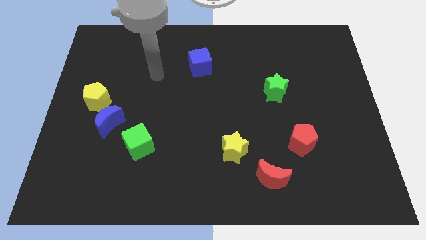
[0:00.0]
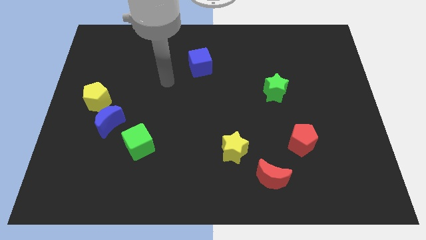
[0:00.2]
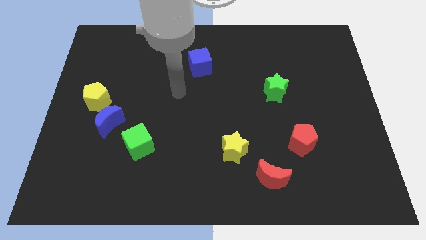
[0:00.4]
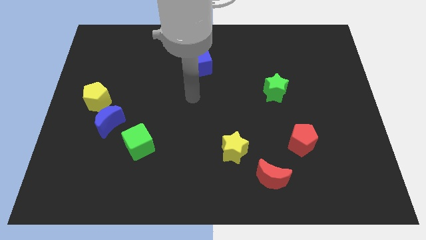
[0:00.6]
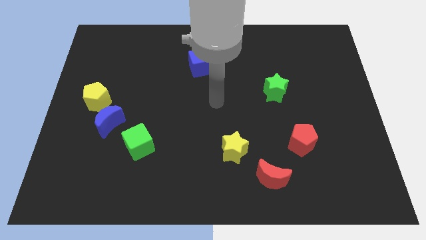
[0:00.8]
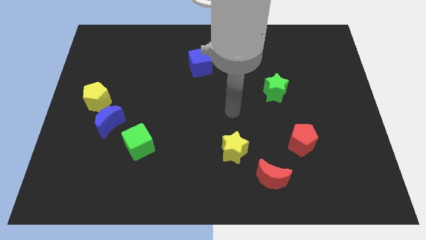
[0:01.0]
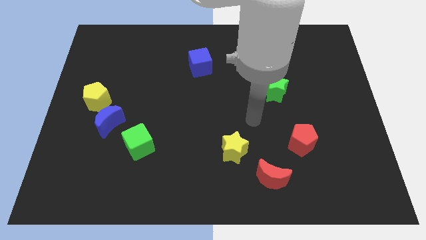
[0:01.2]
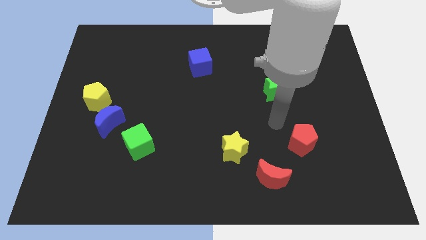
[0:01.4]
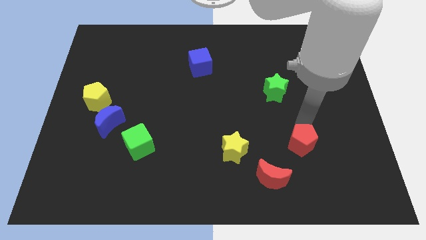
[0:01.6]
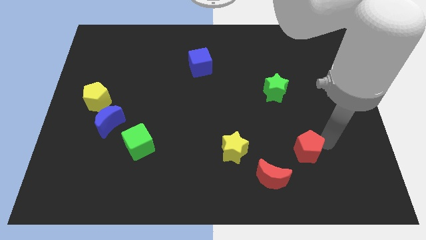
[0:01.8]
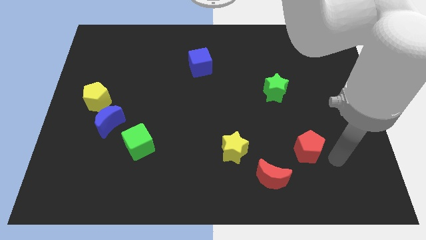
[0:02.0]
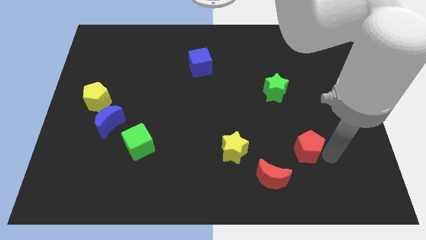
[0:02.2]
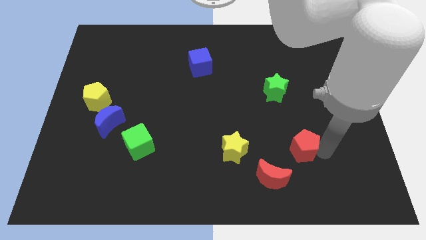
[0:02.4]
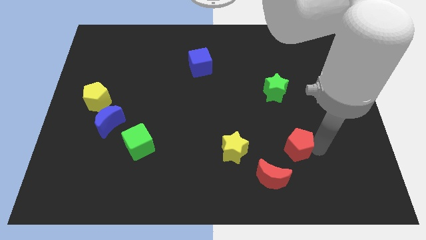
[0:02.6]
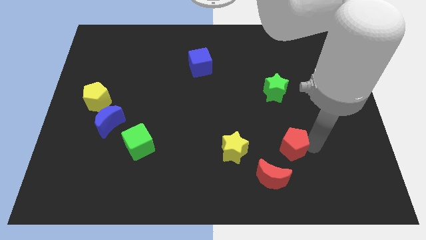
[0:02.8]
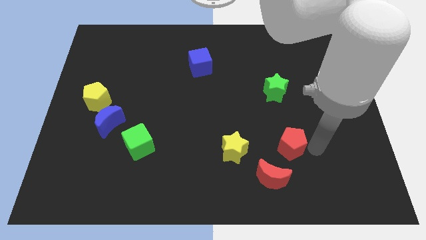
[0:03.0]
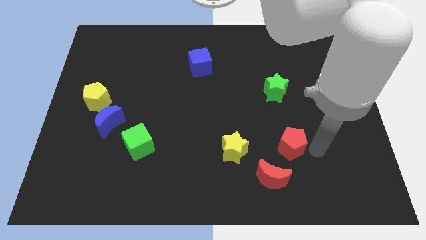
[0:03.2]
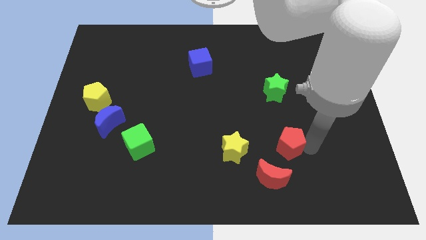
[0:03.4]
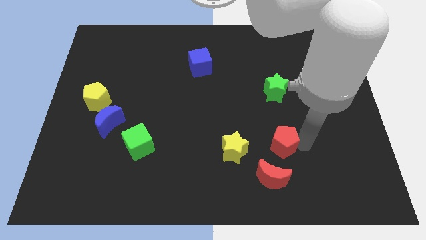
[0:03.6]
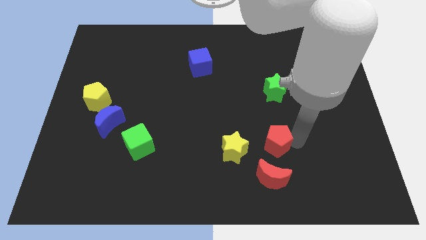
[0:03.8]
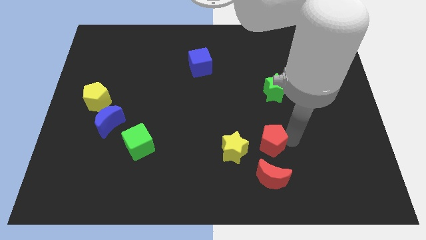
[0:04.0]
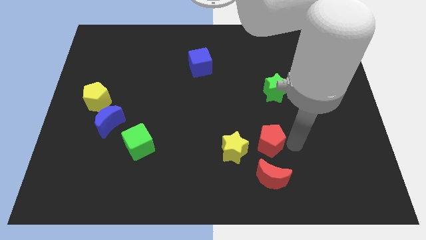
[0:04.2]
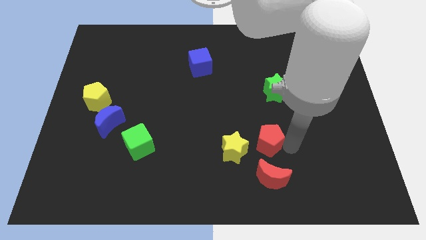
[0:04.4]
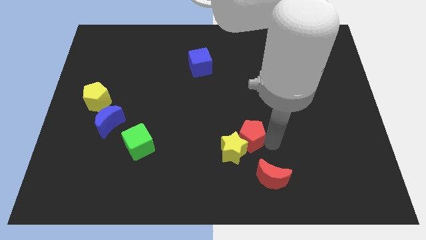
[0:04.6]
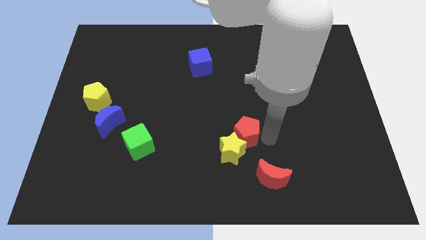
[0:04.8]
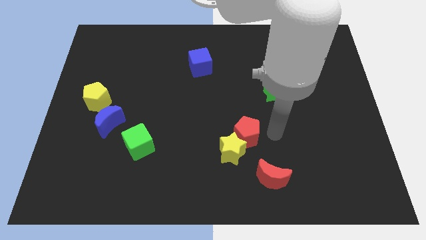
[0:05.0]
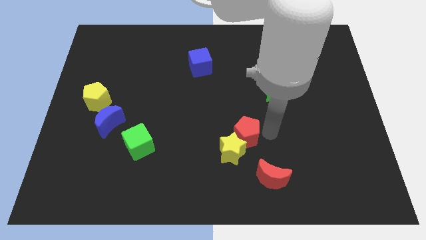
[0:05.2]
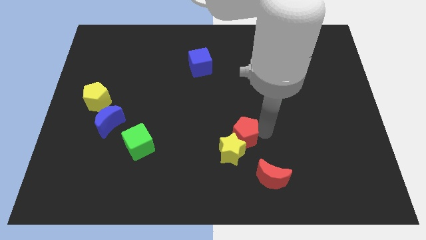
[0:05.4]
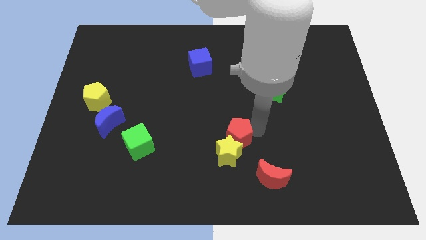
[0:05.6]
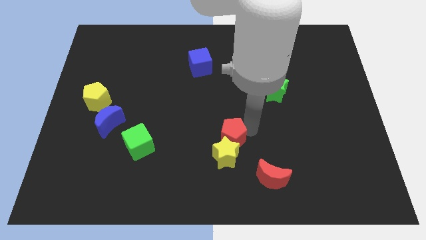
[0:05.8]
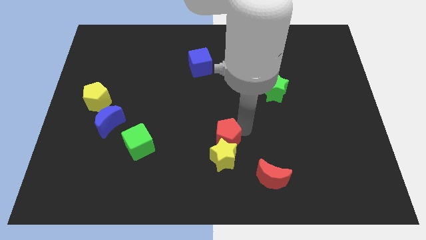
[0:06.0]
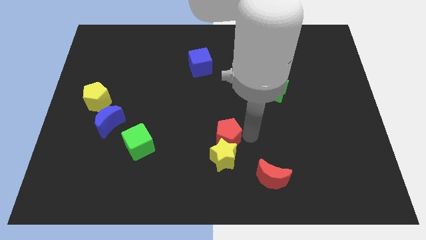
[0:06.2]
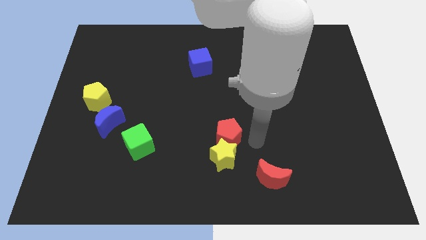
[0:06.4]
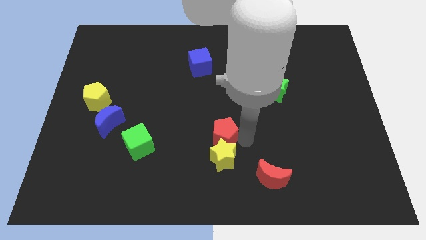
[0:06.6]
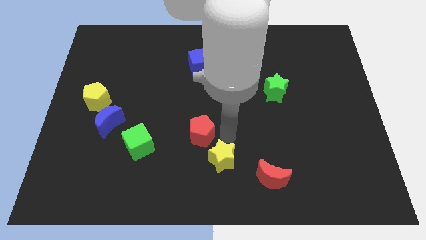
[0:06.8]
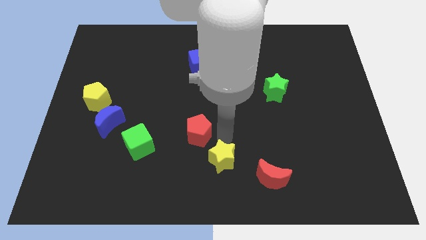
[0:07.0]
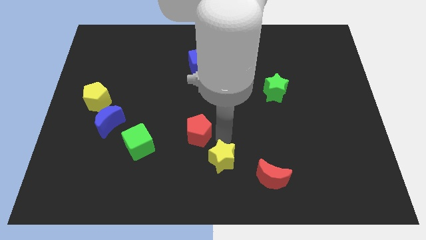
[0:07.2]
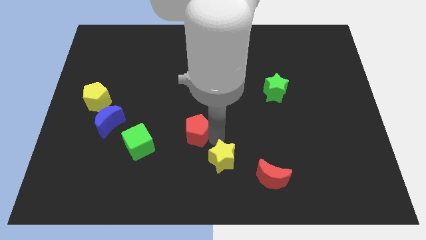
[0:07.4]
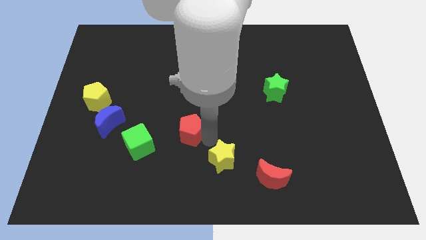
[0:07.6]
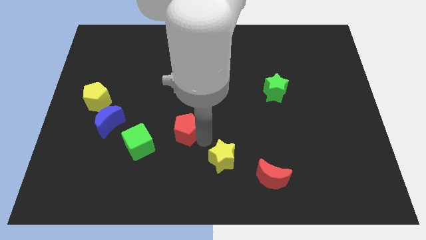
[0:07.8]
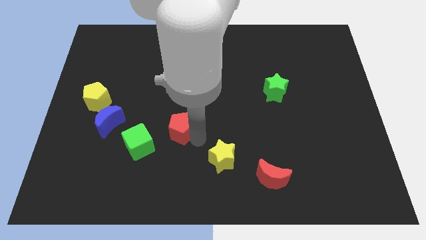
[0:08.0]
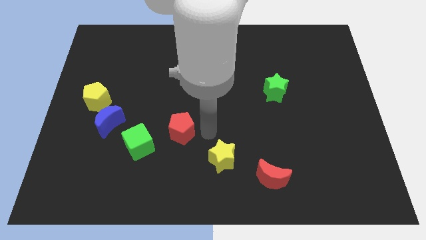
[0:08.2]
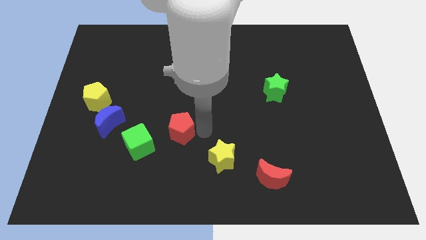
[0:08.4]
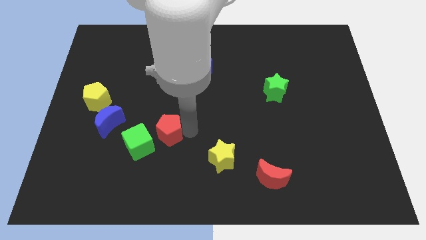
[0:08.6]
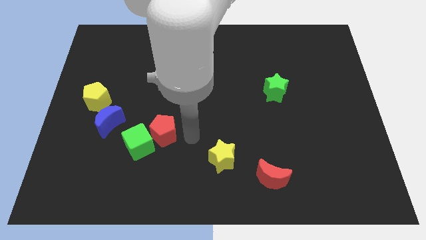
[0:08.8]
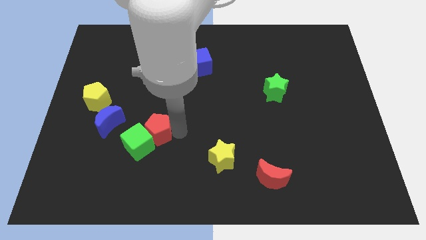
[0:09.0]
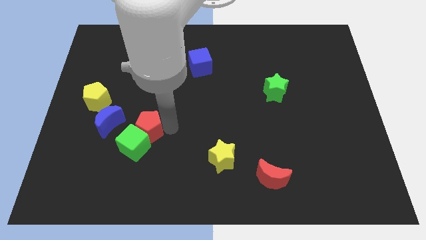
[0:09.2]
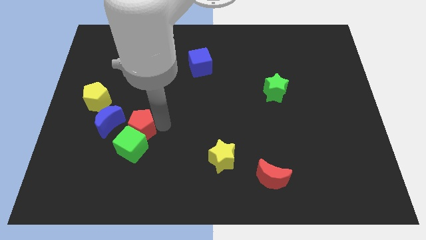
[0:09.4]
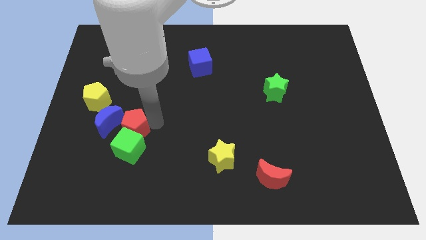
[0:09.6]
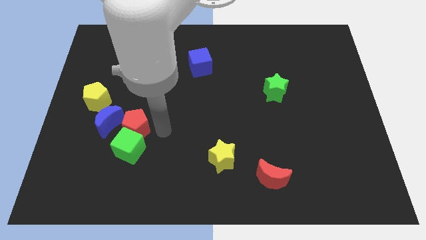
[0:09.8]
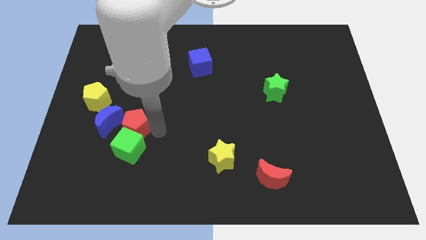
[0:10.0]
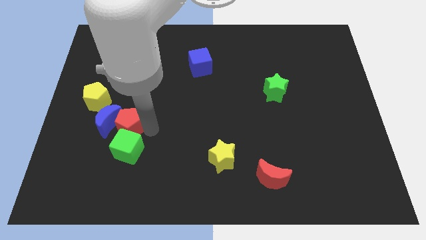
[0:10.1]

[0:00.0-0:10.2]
put the red pentagon towards the blue moon

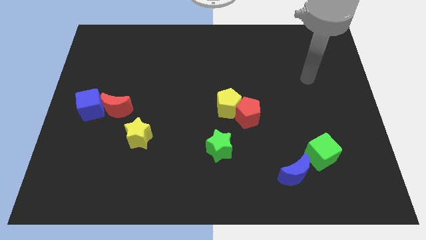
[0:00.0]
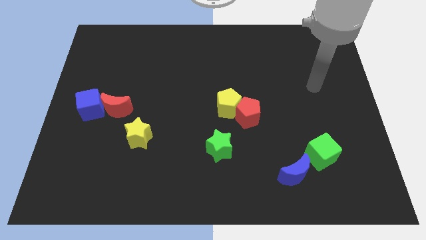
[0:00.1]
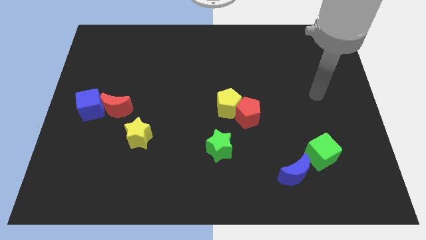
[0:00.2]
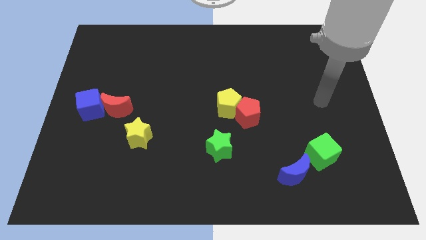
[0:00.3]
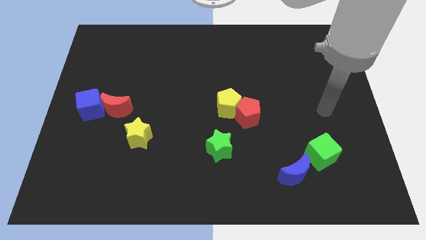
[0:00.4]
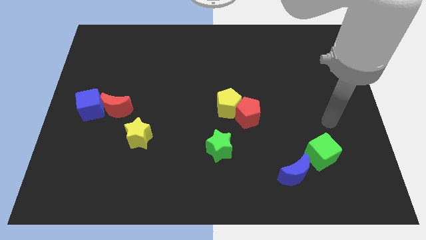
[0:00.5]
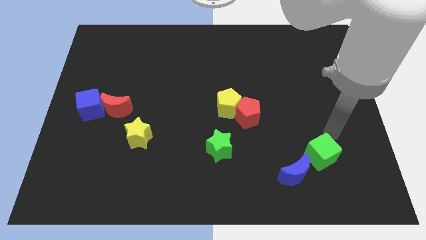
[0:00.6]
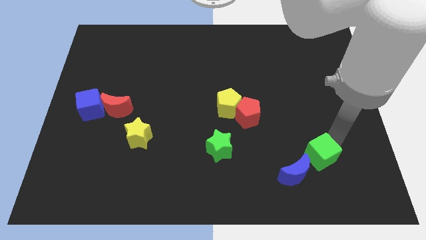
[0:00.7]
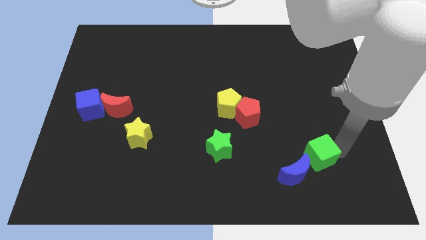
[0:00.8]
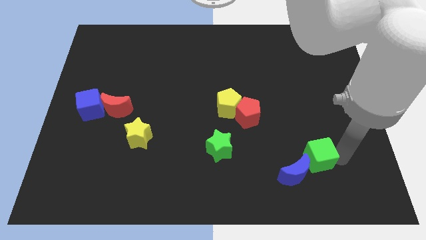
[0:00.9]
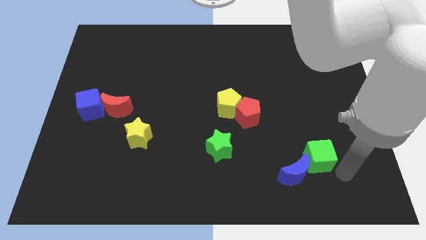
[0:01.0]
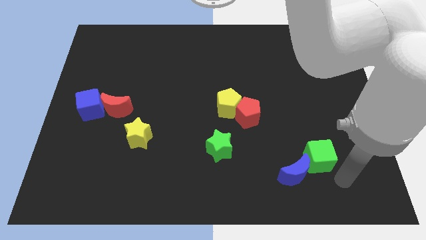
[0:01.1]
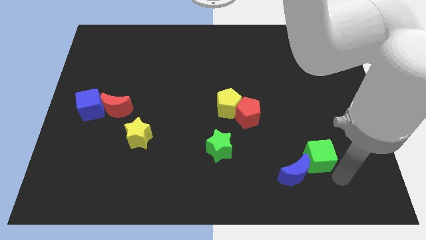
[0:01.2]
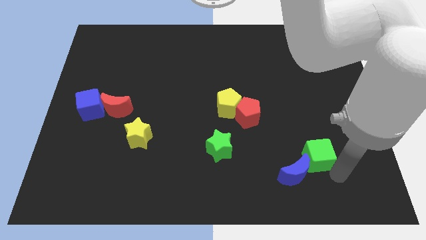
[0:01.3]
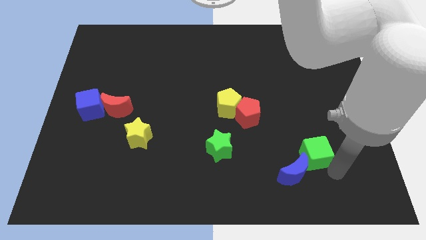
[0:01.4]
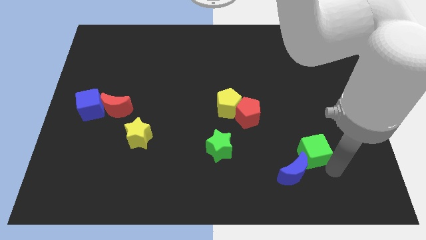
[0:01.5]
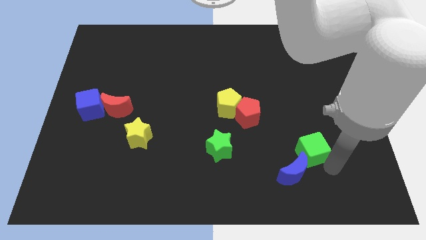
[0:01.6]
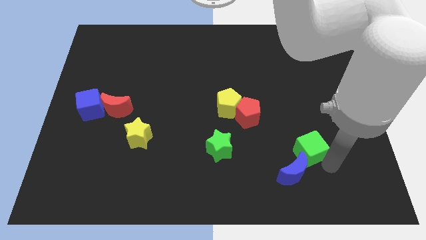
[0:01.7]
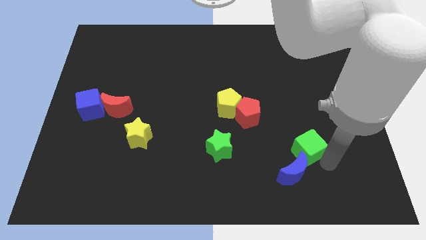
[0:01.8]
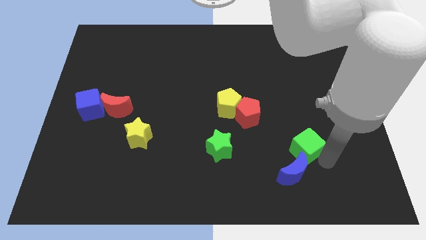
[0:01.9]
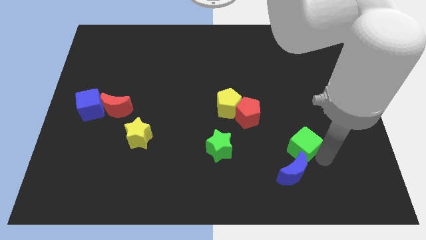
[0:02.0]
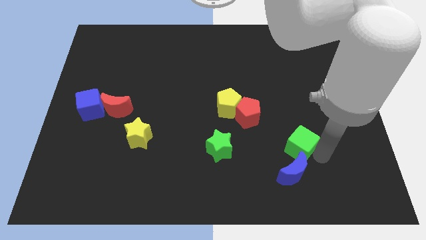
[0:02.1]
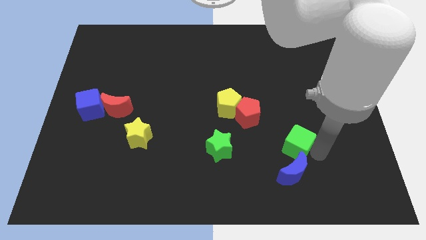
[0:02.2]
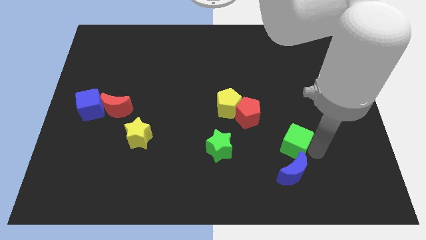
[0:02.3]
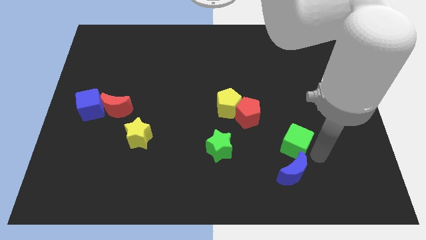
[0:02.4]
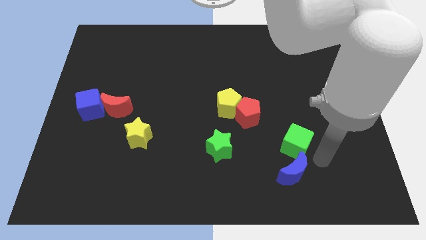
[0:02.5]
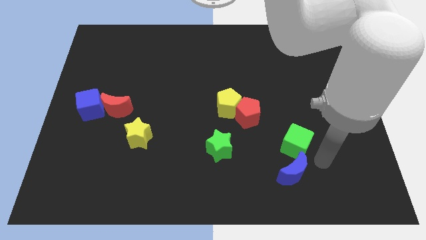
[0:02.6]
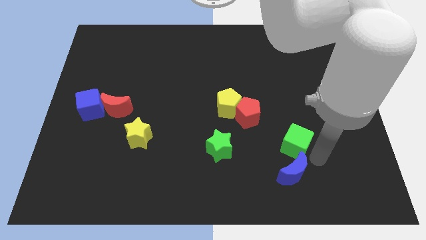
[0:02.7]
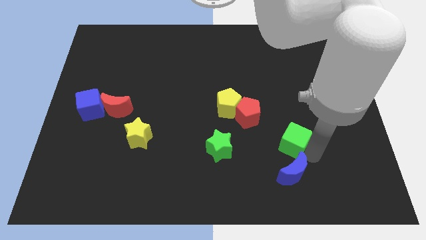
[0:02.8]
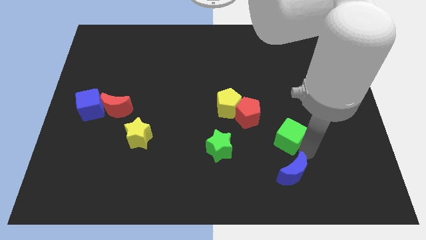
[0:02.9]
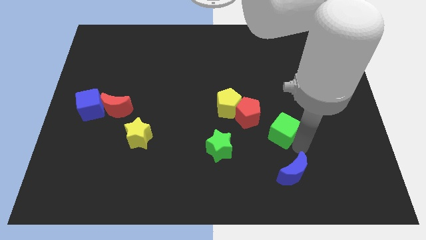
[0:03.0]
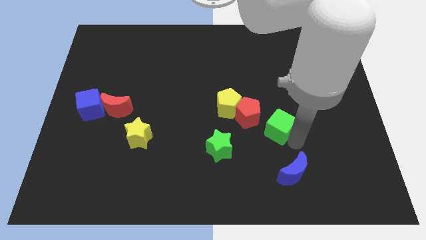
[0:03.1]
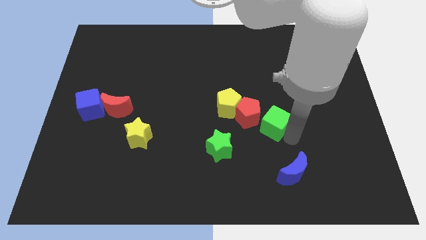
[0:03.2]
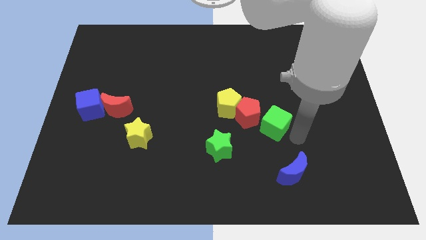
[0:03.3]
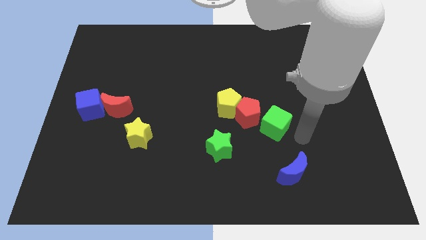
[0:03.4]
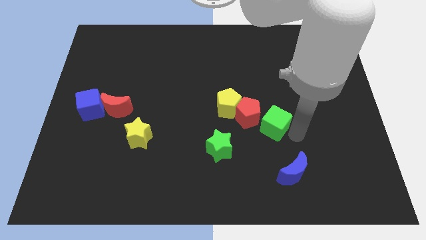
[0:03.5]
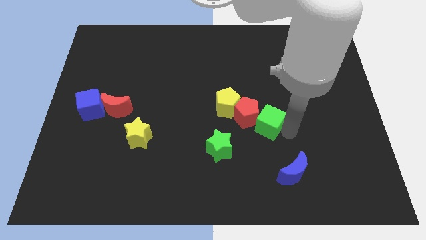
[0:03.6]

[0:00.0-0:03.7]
push the green cube towards the red pentagon
